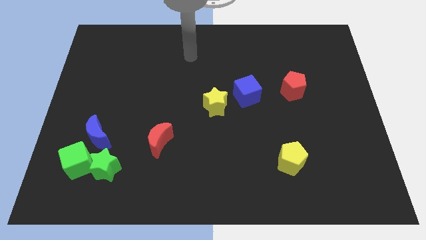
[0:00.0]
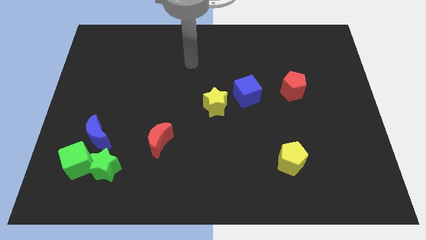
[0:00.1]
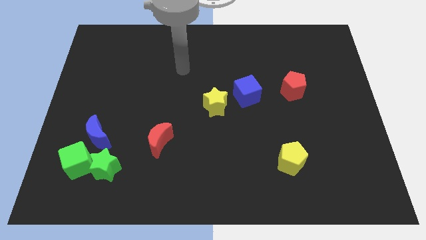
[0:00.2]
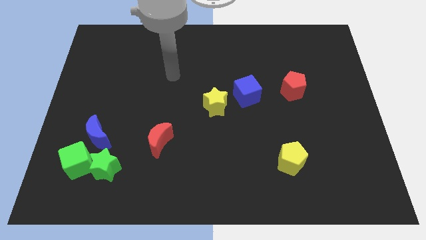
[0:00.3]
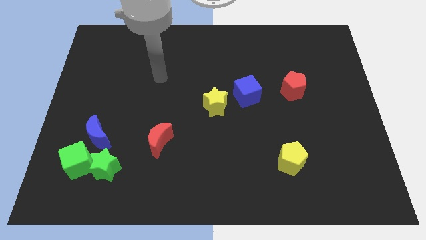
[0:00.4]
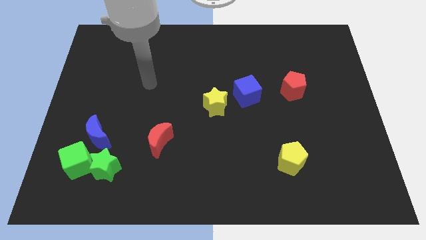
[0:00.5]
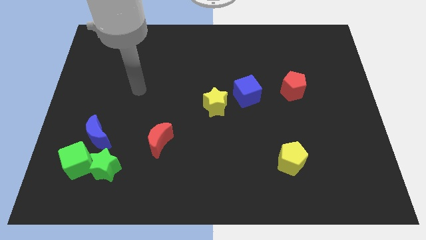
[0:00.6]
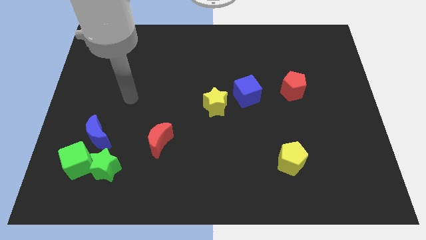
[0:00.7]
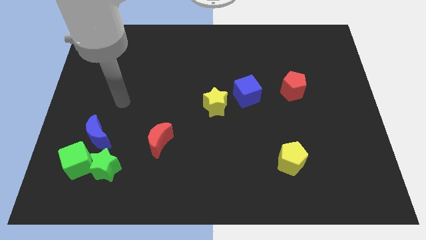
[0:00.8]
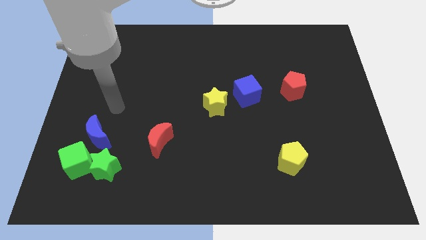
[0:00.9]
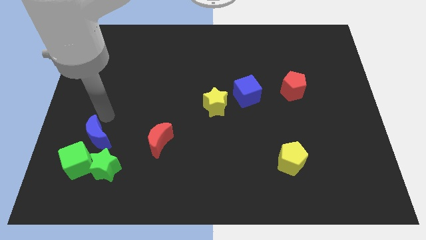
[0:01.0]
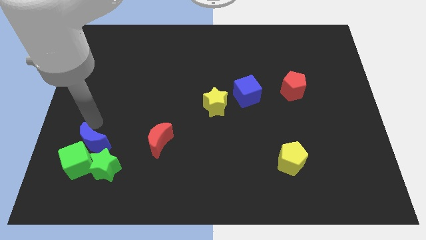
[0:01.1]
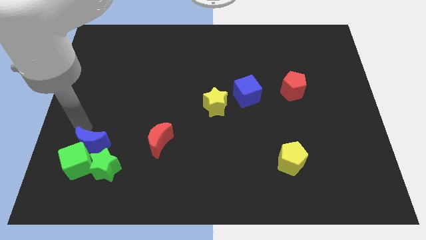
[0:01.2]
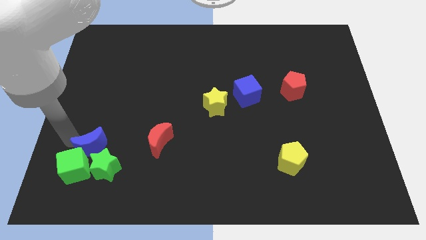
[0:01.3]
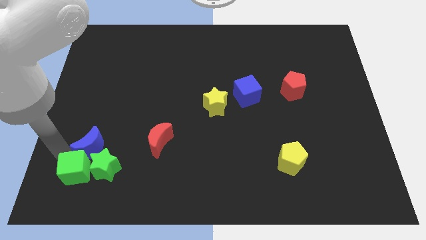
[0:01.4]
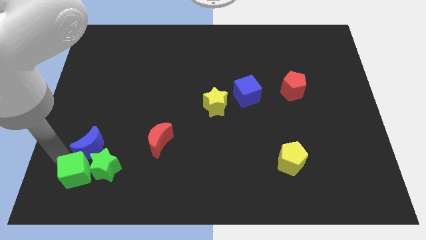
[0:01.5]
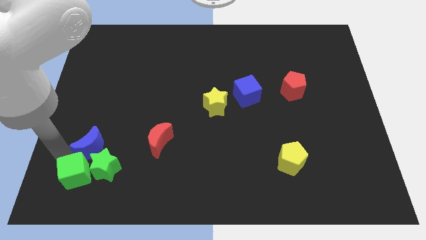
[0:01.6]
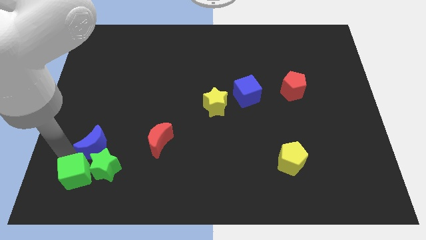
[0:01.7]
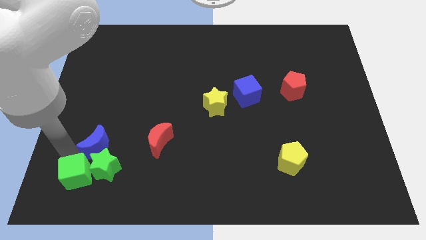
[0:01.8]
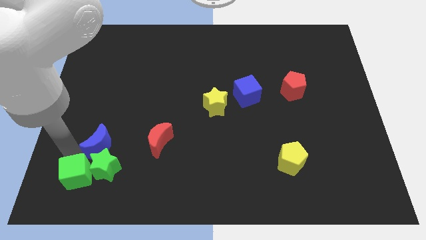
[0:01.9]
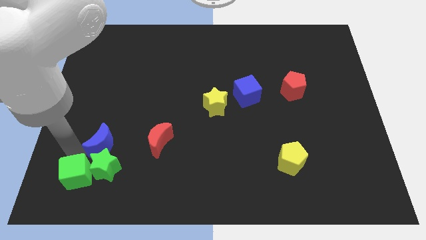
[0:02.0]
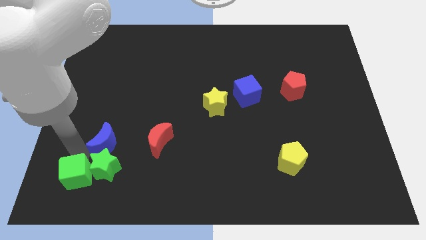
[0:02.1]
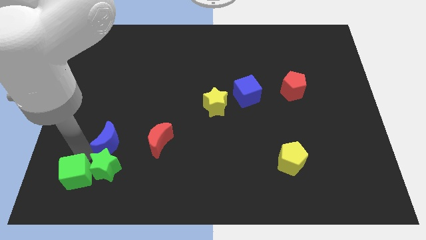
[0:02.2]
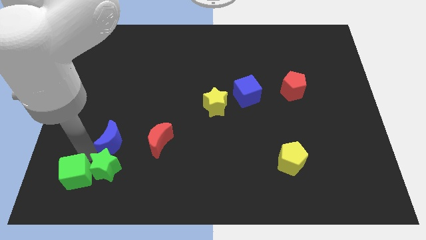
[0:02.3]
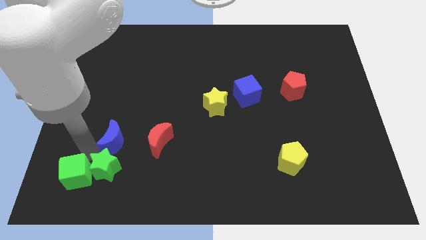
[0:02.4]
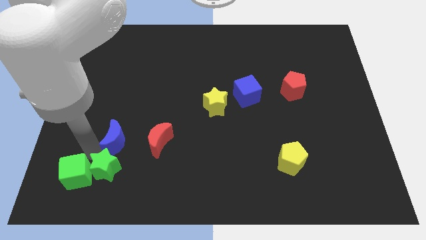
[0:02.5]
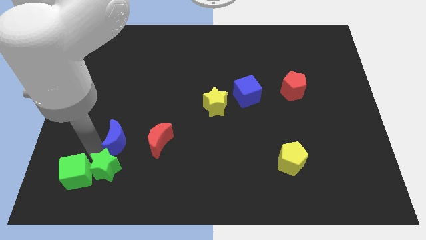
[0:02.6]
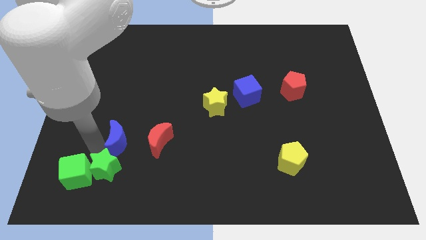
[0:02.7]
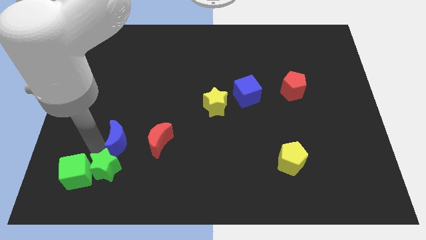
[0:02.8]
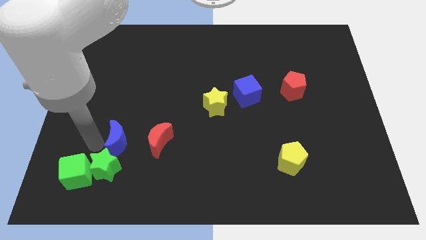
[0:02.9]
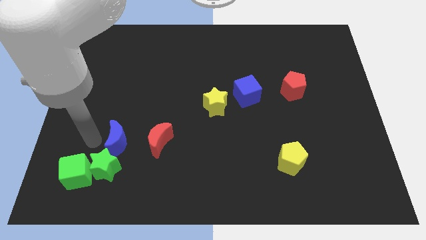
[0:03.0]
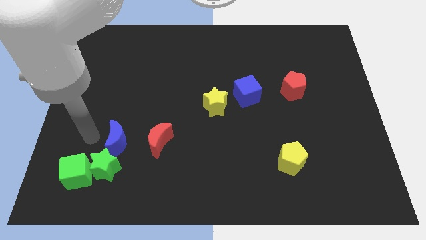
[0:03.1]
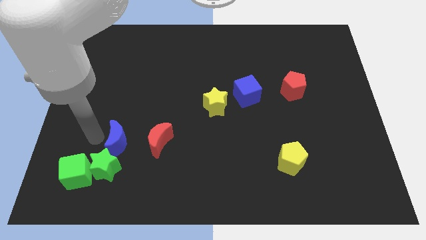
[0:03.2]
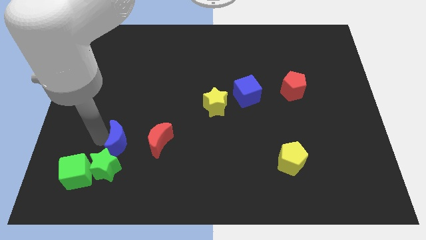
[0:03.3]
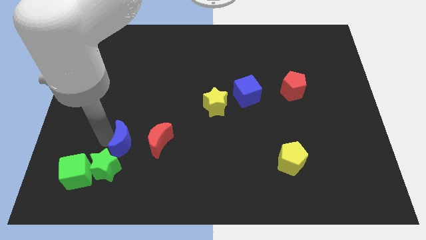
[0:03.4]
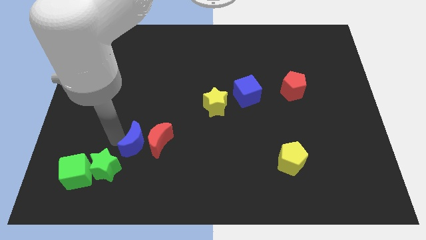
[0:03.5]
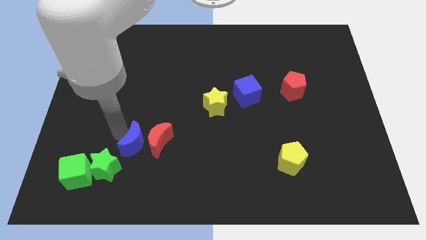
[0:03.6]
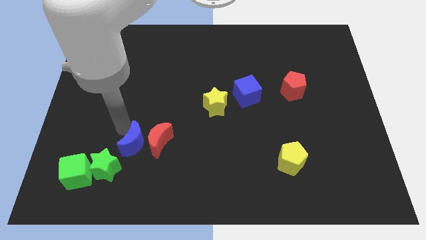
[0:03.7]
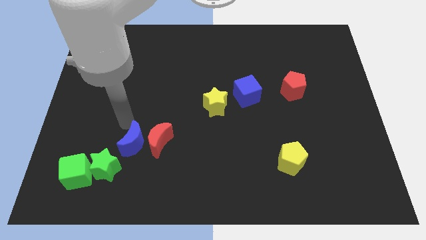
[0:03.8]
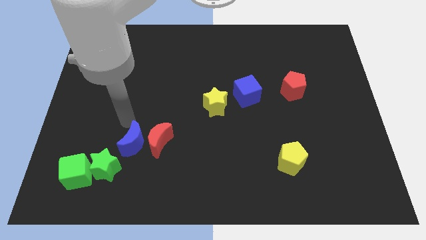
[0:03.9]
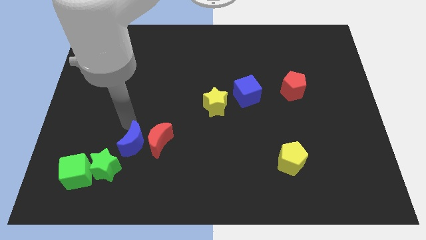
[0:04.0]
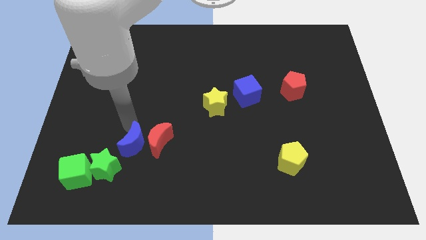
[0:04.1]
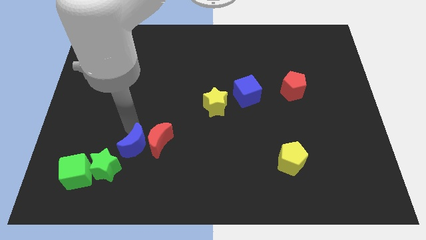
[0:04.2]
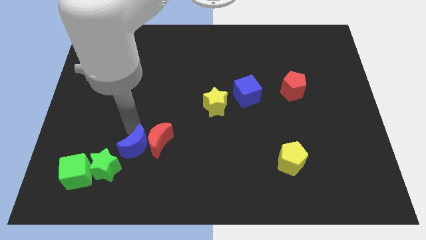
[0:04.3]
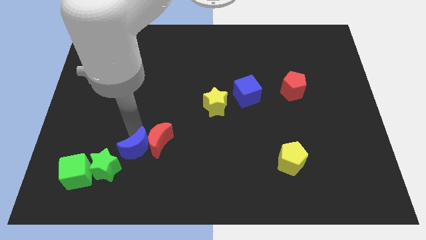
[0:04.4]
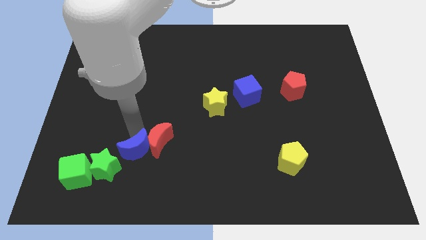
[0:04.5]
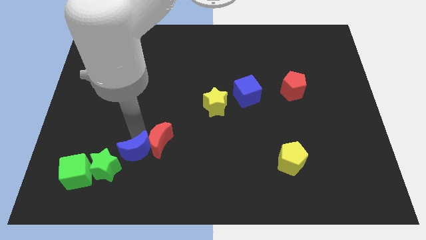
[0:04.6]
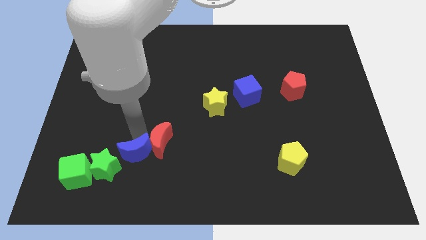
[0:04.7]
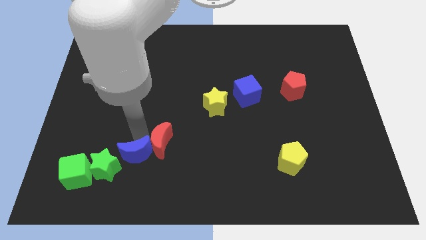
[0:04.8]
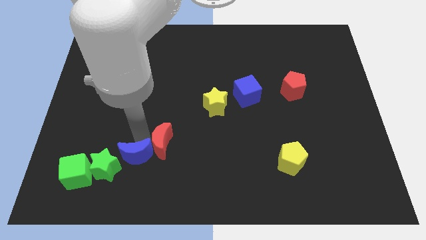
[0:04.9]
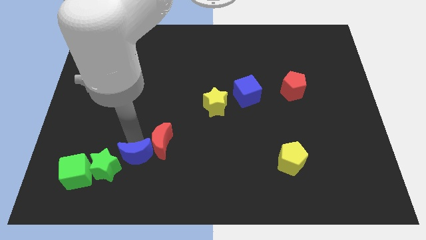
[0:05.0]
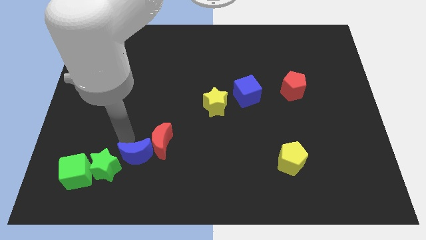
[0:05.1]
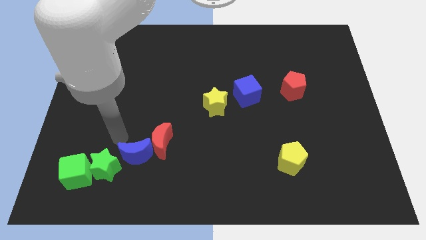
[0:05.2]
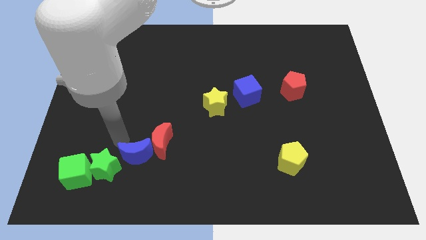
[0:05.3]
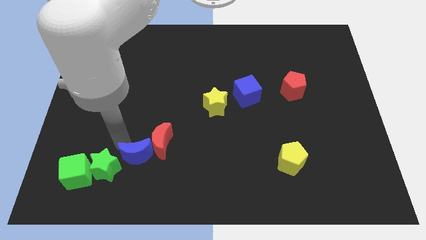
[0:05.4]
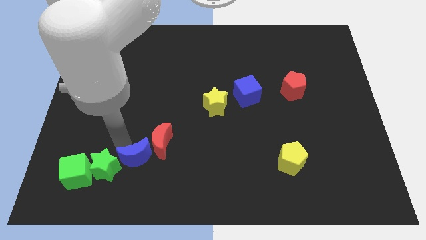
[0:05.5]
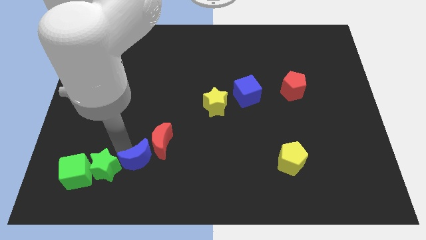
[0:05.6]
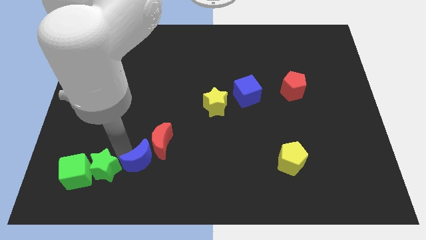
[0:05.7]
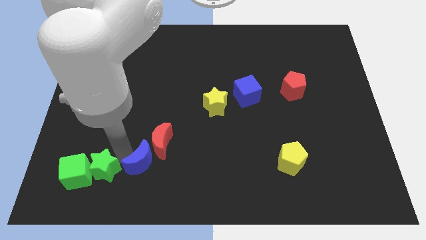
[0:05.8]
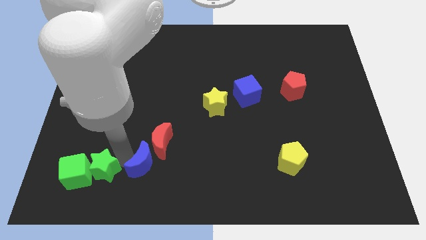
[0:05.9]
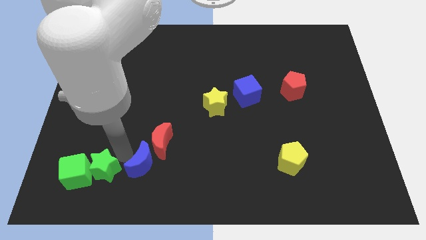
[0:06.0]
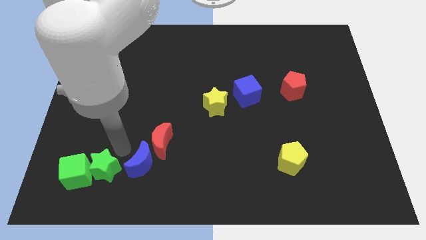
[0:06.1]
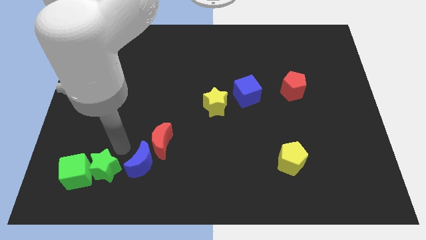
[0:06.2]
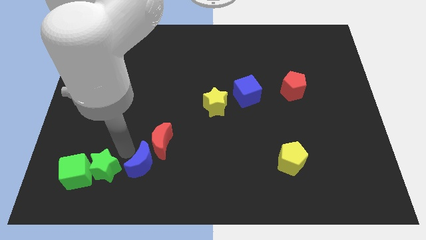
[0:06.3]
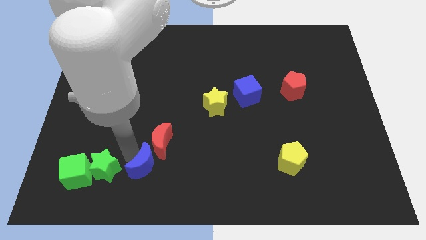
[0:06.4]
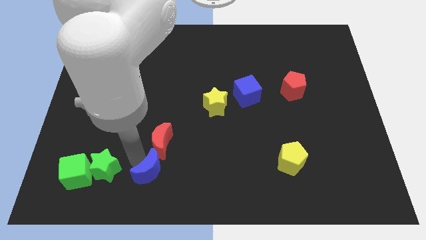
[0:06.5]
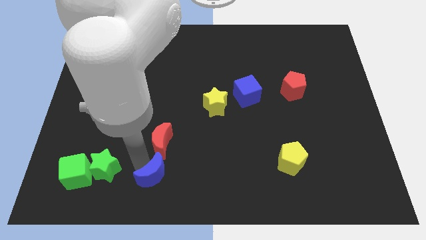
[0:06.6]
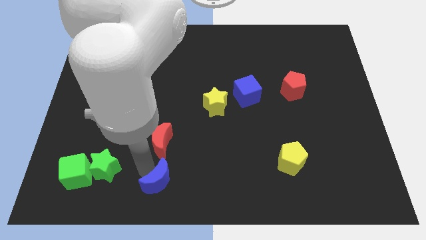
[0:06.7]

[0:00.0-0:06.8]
slide the blue moon to the bottom side
